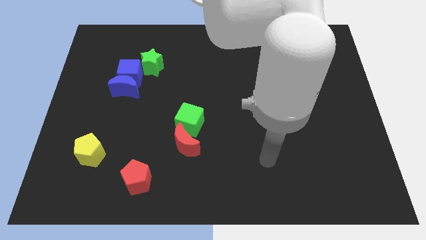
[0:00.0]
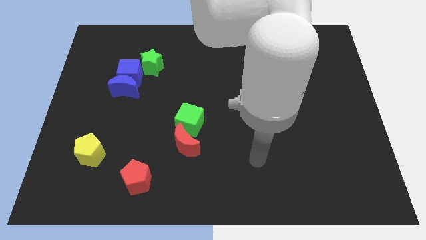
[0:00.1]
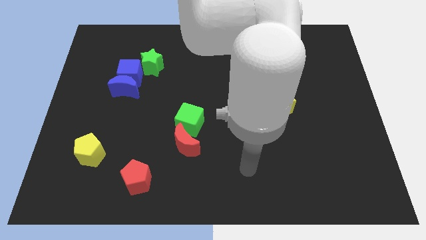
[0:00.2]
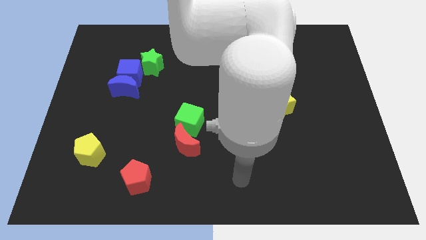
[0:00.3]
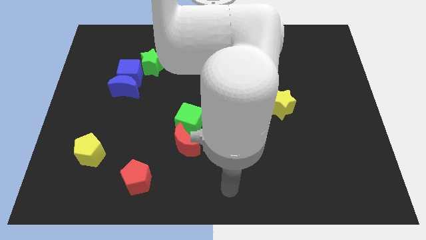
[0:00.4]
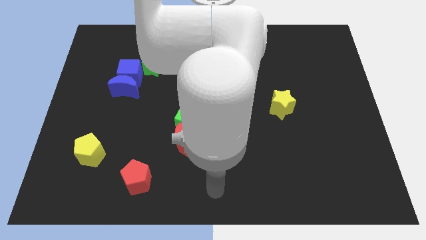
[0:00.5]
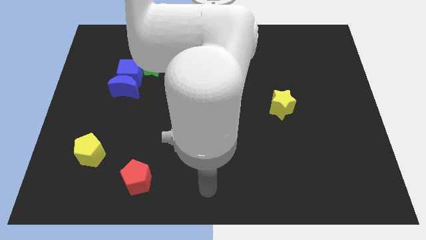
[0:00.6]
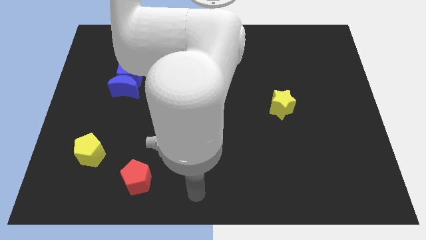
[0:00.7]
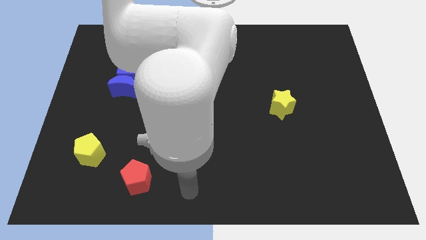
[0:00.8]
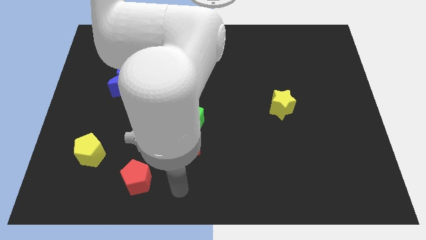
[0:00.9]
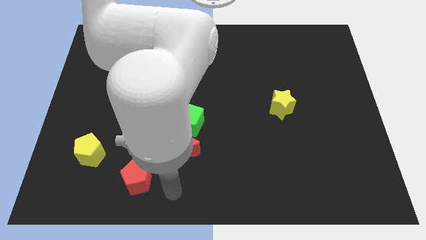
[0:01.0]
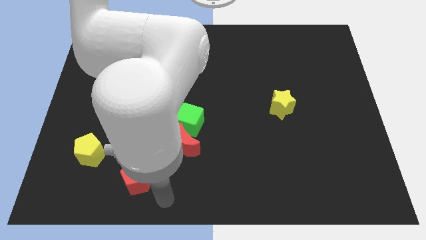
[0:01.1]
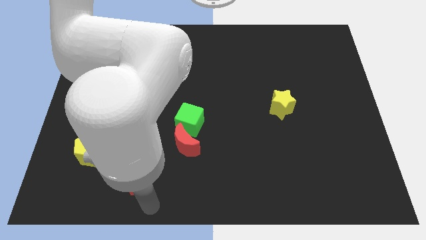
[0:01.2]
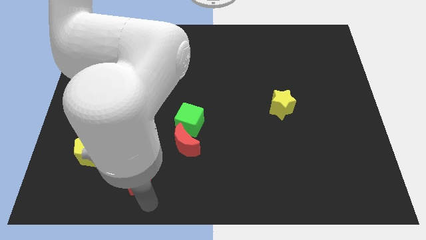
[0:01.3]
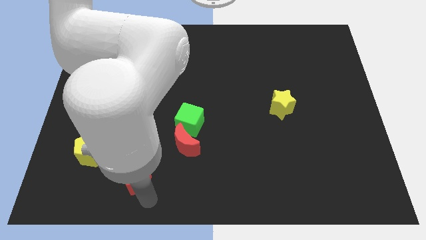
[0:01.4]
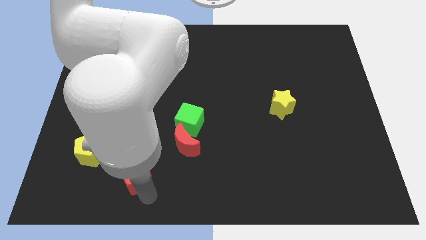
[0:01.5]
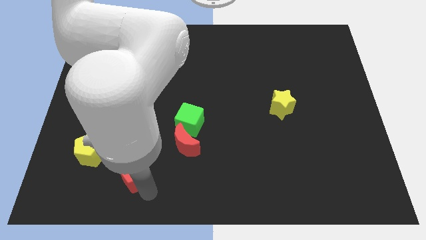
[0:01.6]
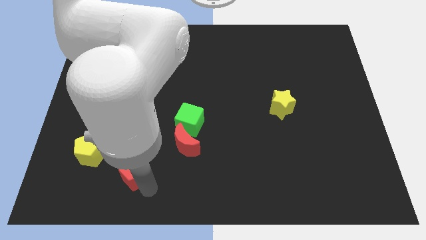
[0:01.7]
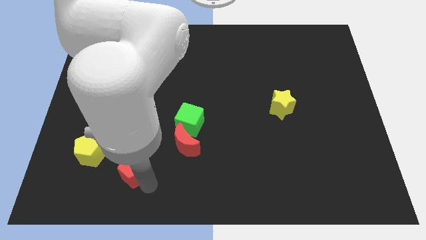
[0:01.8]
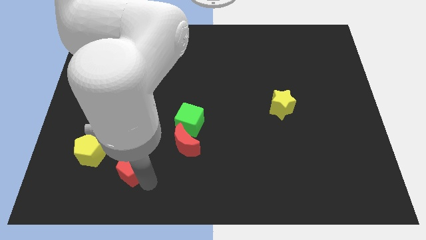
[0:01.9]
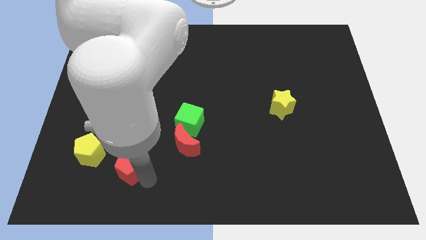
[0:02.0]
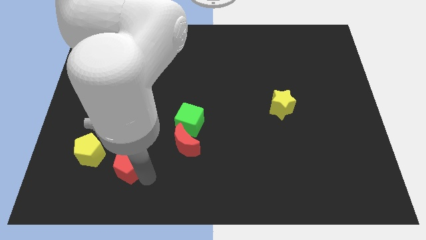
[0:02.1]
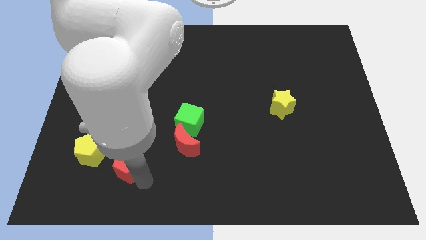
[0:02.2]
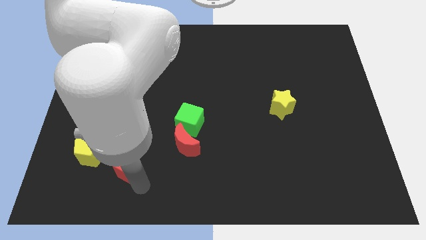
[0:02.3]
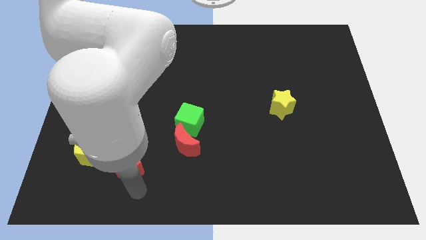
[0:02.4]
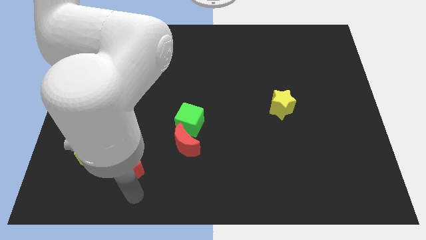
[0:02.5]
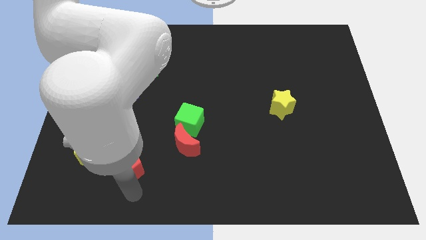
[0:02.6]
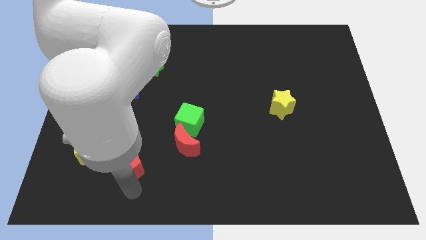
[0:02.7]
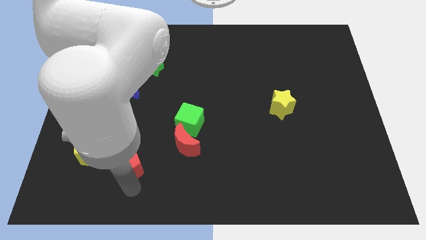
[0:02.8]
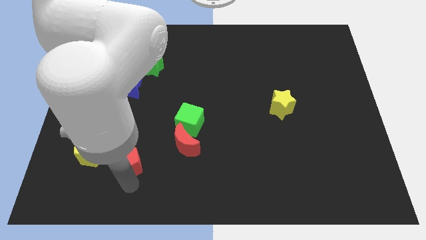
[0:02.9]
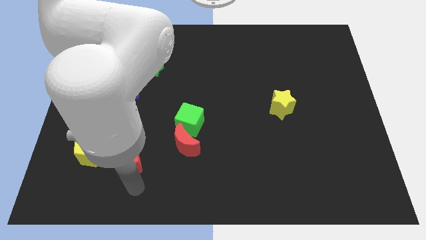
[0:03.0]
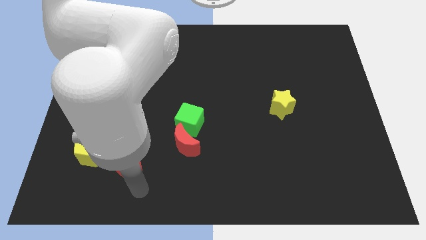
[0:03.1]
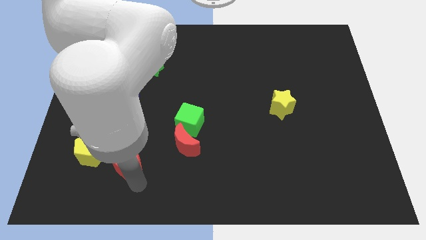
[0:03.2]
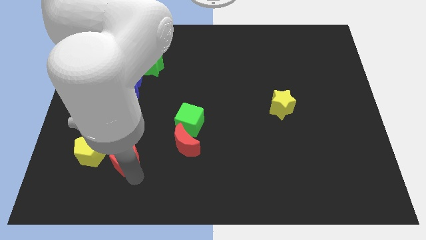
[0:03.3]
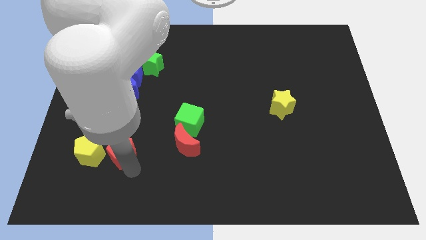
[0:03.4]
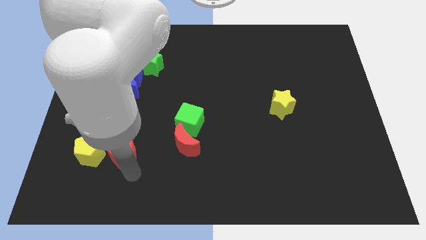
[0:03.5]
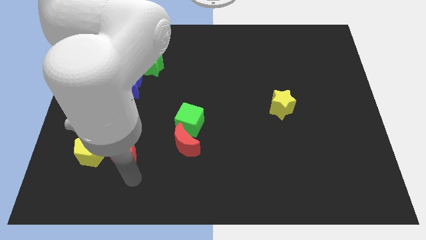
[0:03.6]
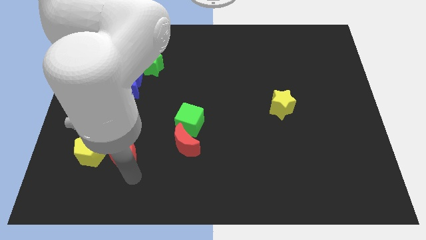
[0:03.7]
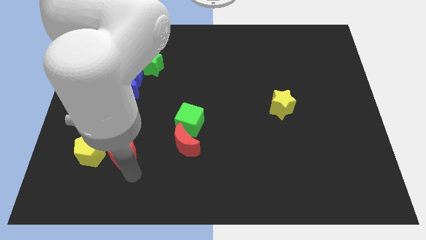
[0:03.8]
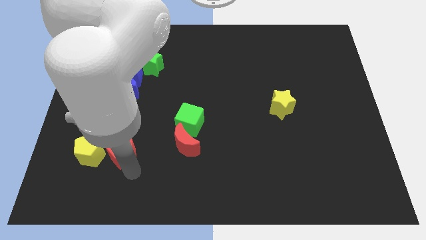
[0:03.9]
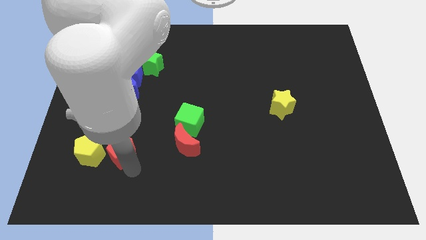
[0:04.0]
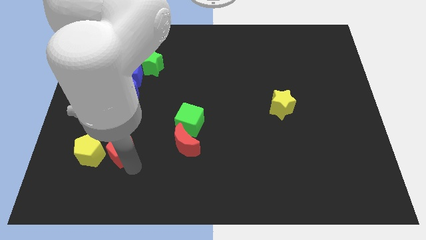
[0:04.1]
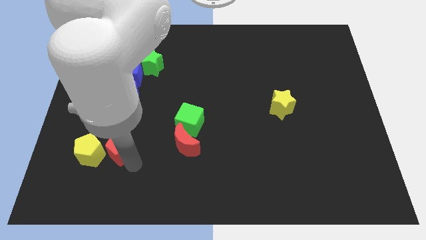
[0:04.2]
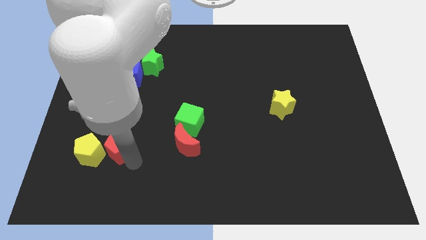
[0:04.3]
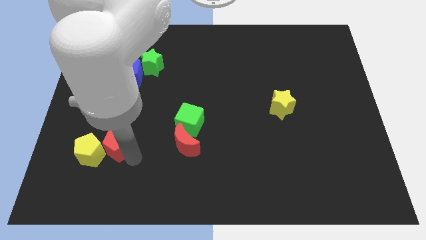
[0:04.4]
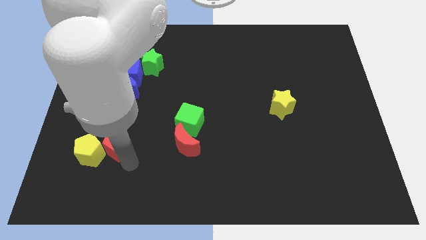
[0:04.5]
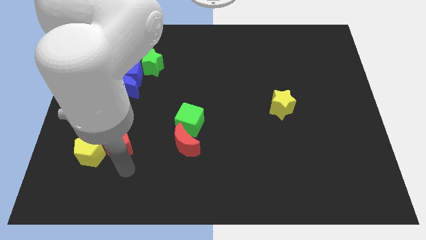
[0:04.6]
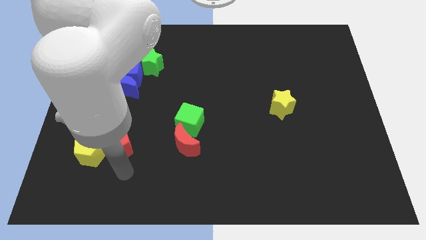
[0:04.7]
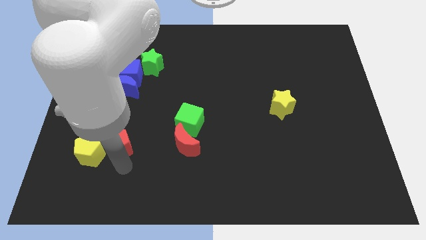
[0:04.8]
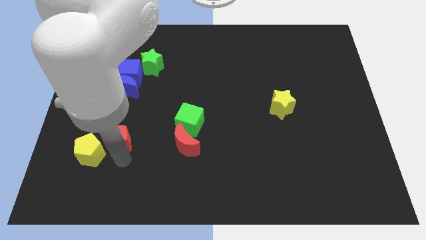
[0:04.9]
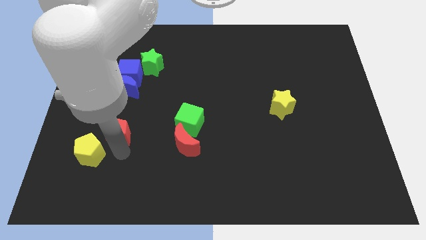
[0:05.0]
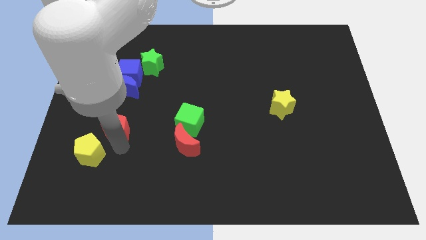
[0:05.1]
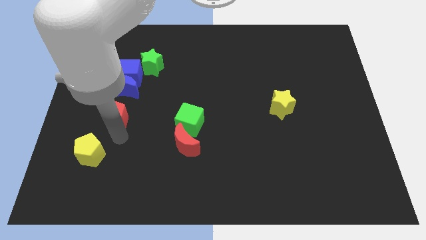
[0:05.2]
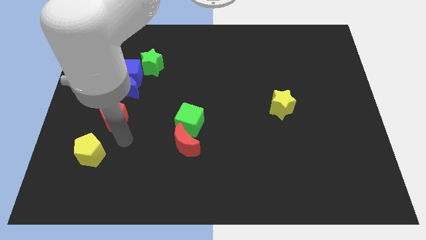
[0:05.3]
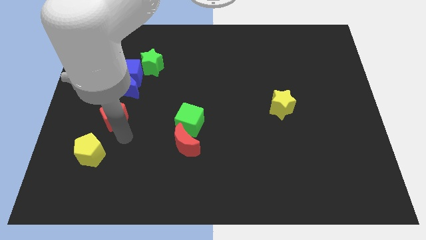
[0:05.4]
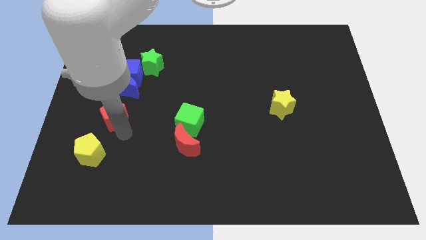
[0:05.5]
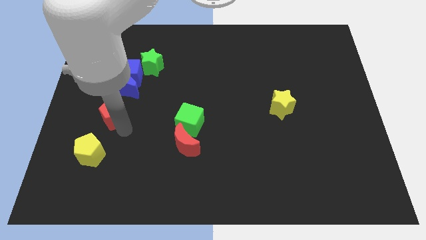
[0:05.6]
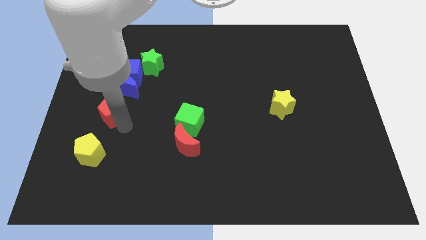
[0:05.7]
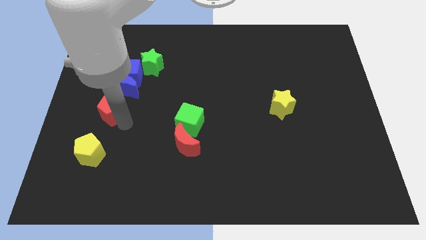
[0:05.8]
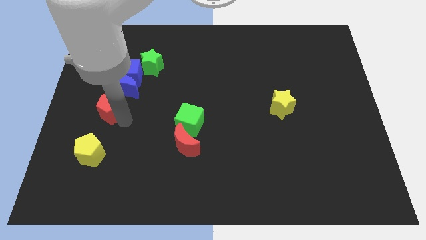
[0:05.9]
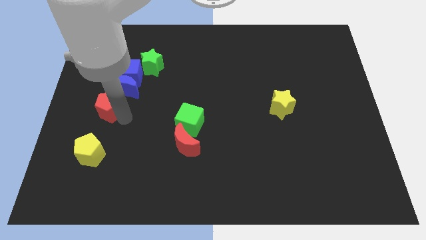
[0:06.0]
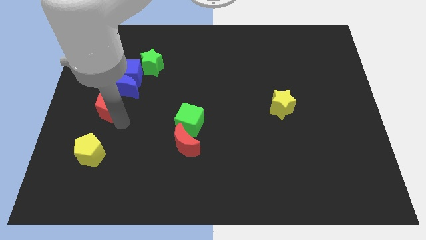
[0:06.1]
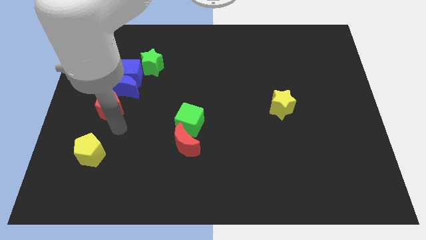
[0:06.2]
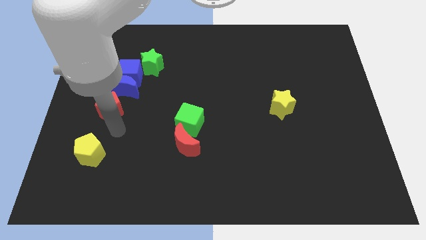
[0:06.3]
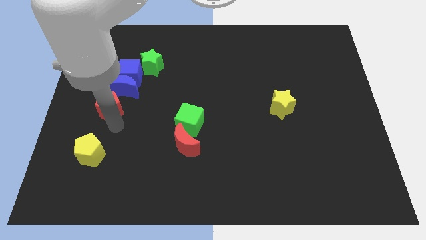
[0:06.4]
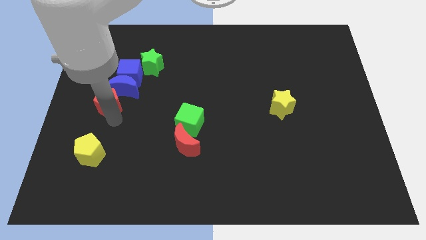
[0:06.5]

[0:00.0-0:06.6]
put the red pentagon to the bottom left side of the blue cube

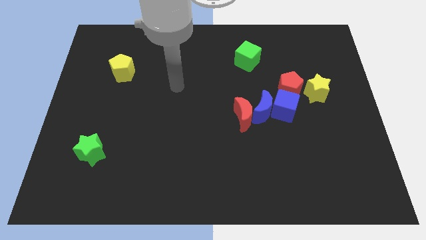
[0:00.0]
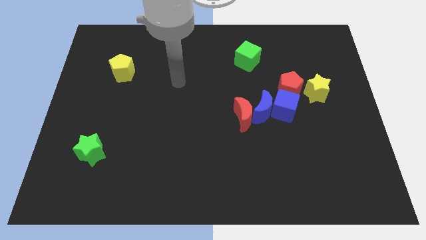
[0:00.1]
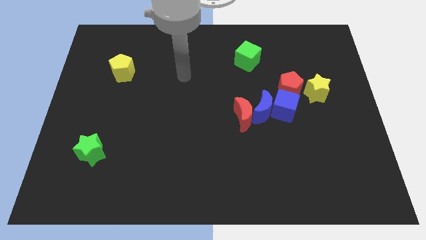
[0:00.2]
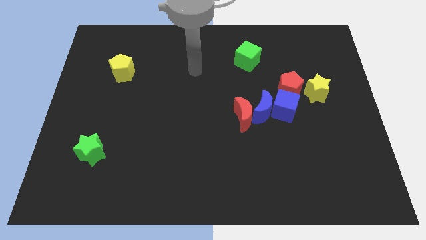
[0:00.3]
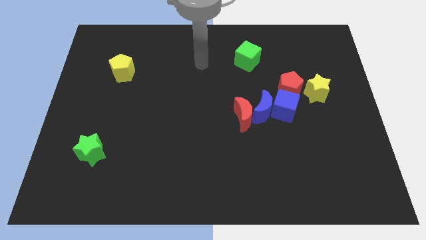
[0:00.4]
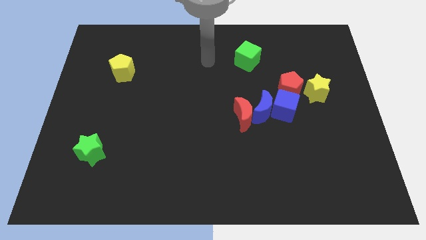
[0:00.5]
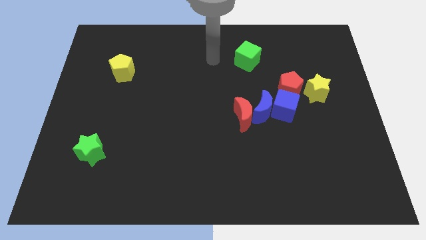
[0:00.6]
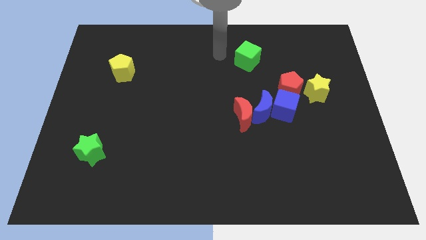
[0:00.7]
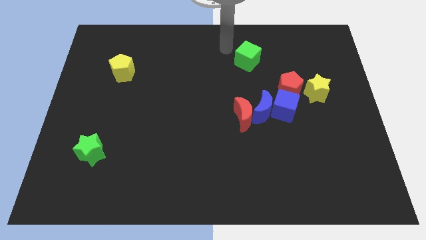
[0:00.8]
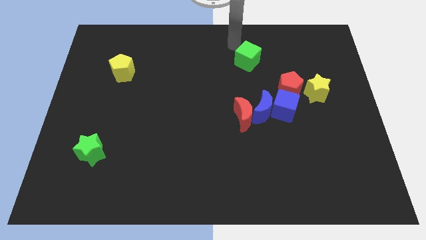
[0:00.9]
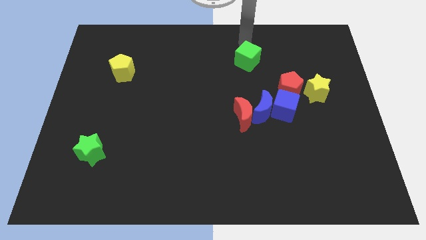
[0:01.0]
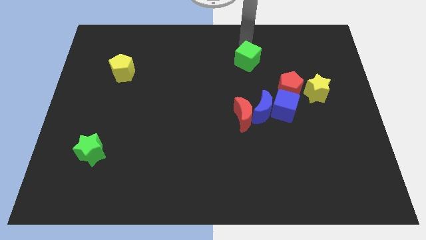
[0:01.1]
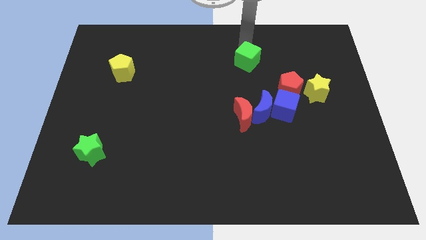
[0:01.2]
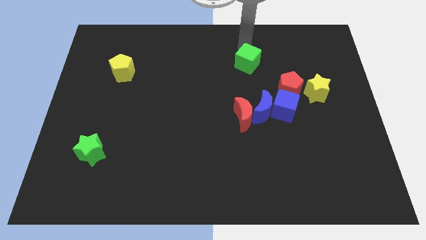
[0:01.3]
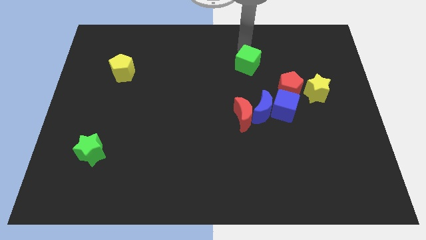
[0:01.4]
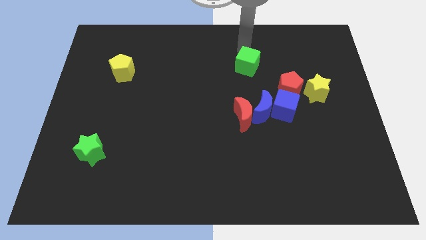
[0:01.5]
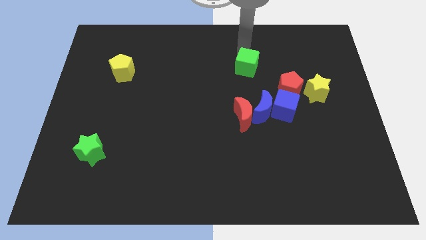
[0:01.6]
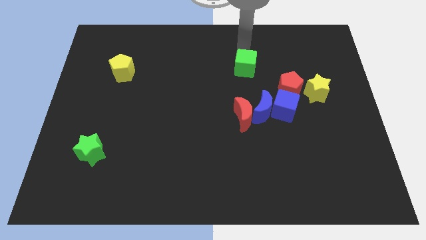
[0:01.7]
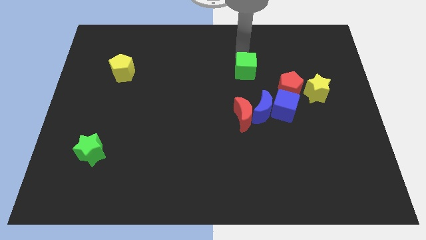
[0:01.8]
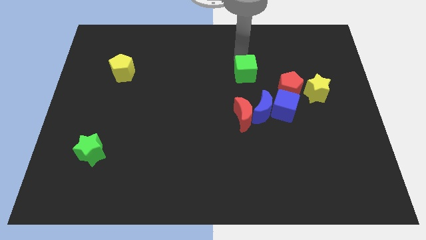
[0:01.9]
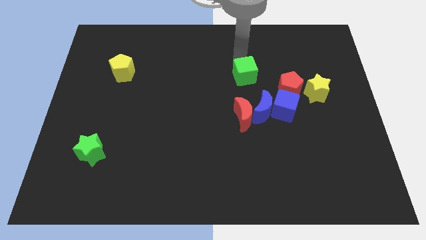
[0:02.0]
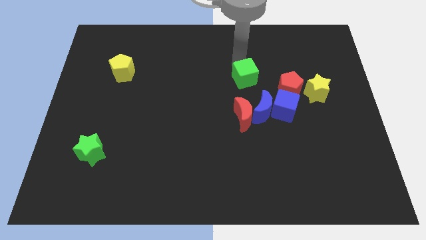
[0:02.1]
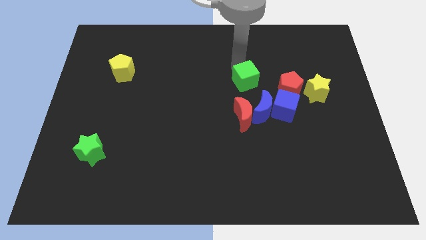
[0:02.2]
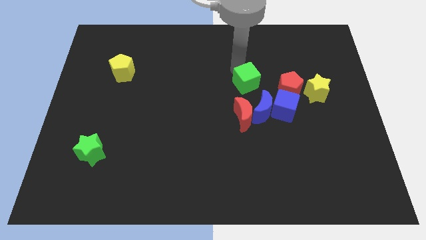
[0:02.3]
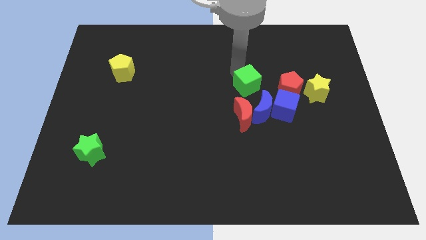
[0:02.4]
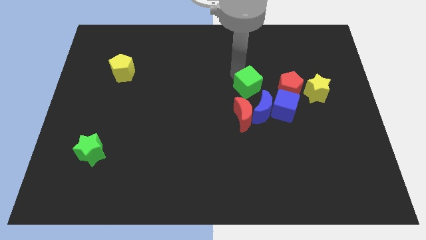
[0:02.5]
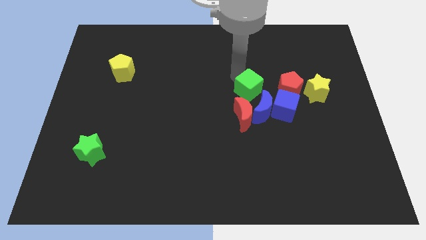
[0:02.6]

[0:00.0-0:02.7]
move the green cube to the top right side of the red moon
